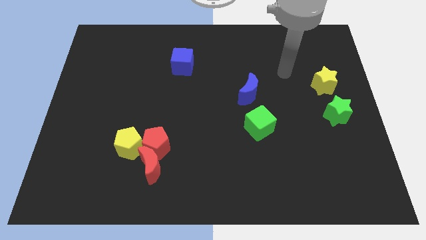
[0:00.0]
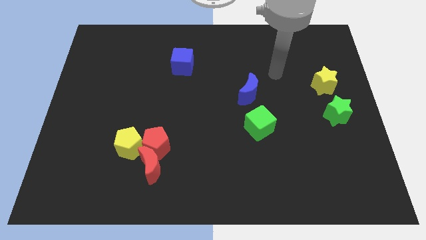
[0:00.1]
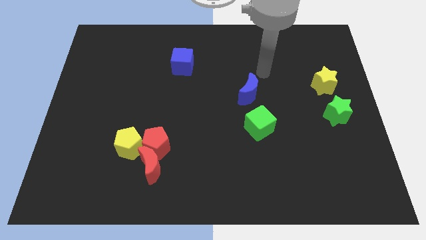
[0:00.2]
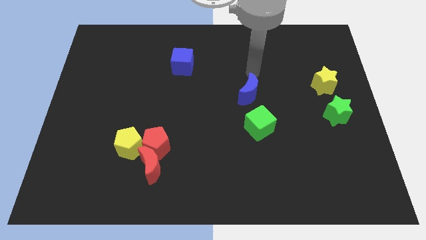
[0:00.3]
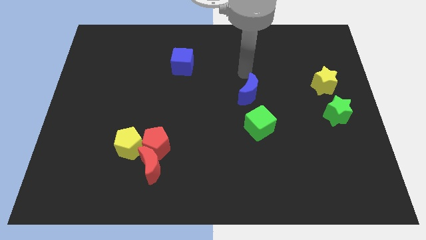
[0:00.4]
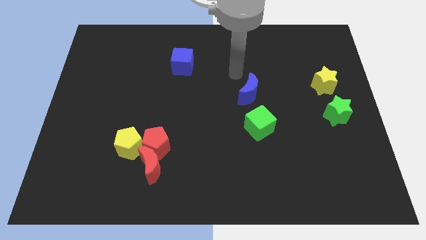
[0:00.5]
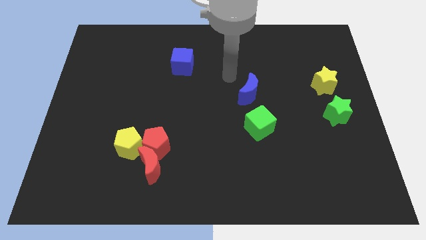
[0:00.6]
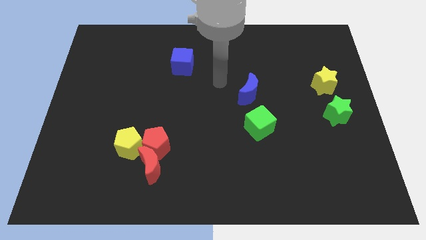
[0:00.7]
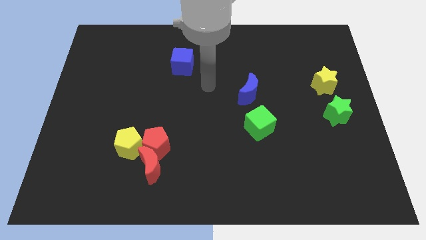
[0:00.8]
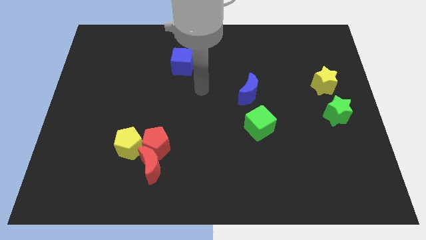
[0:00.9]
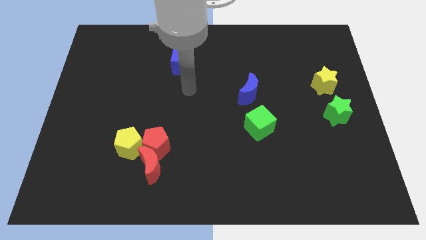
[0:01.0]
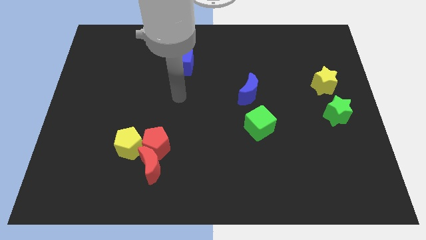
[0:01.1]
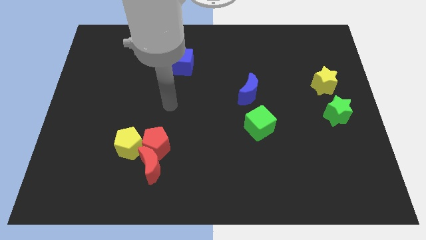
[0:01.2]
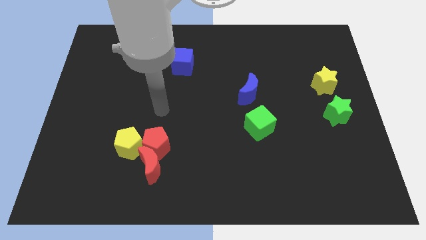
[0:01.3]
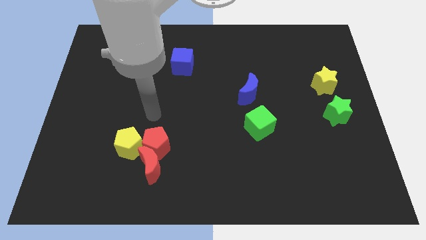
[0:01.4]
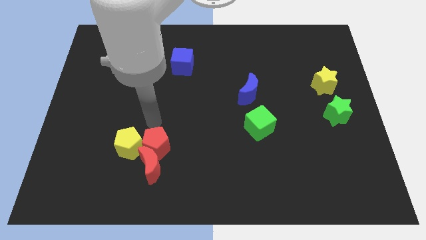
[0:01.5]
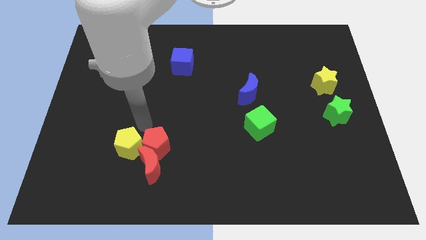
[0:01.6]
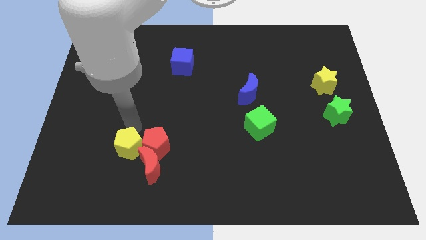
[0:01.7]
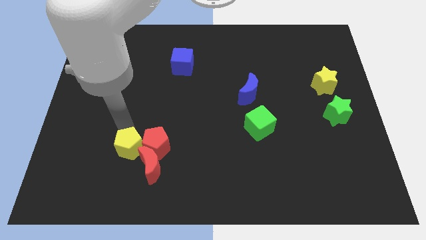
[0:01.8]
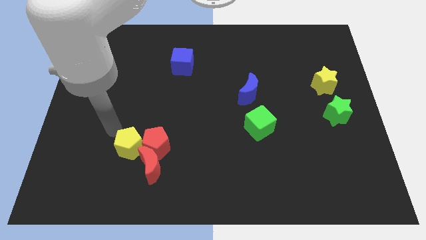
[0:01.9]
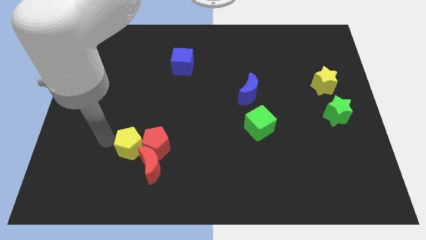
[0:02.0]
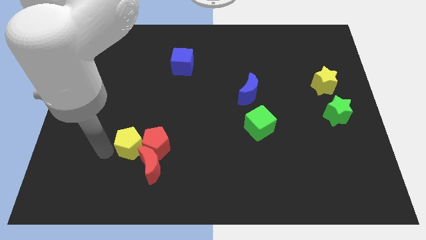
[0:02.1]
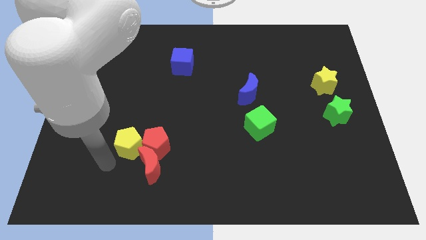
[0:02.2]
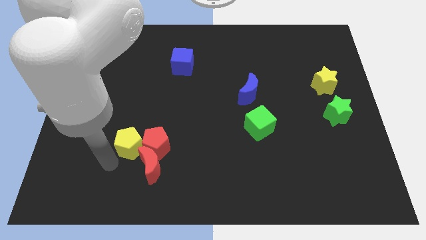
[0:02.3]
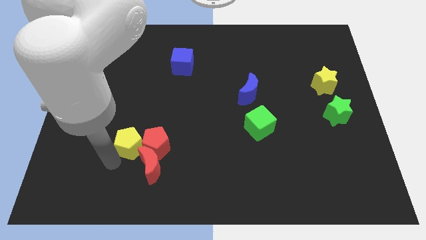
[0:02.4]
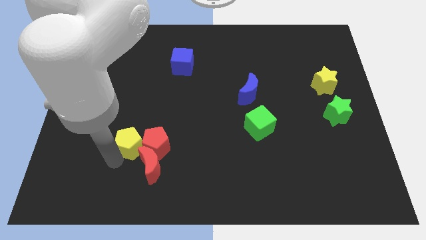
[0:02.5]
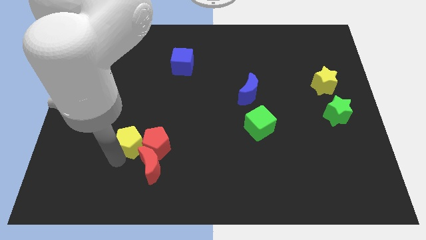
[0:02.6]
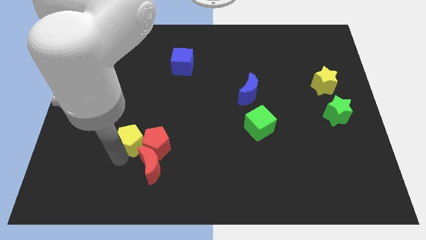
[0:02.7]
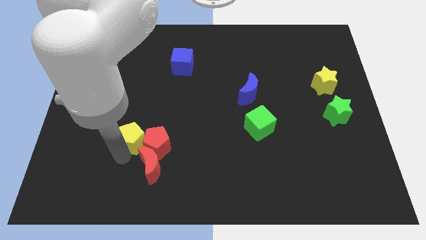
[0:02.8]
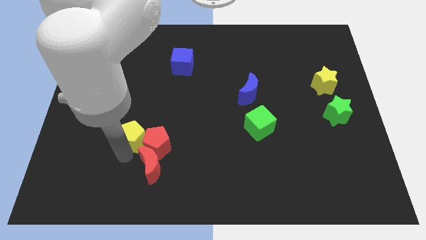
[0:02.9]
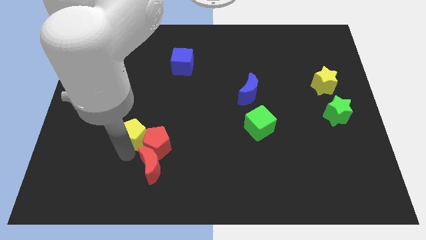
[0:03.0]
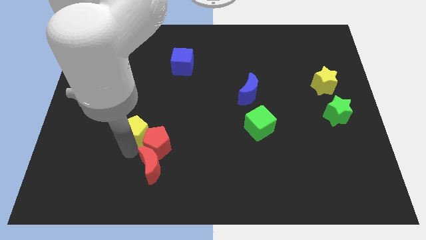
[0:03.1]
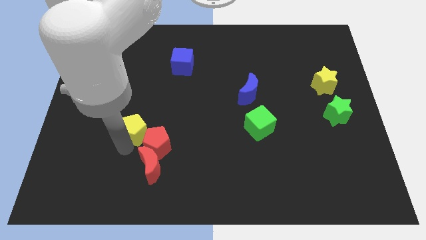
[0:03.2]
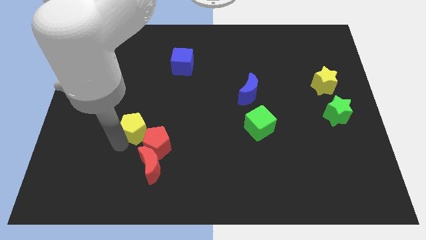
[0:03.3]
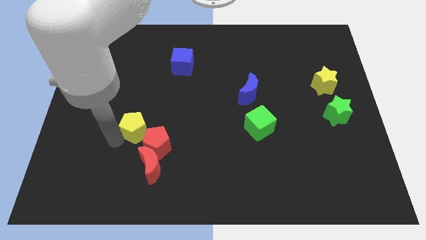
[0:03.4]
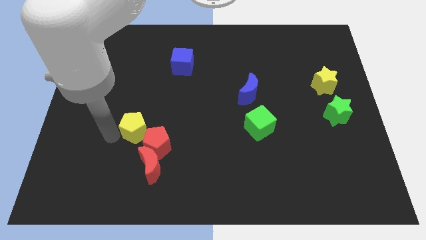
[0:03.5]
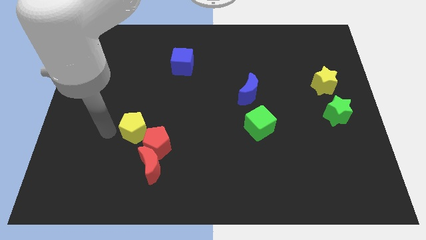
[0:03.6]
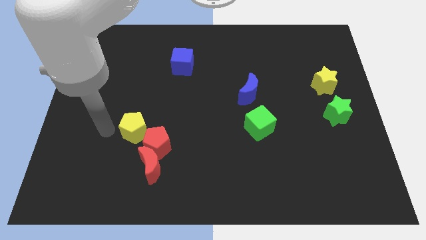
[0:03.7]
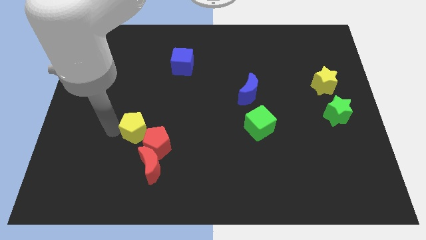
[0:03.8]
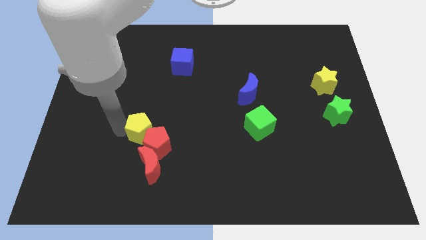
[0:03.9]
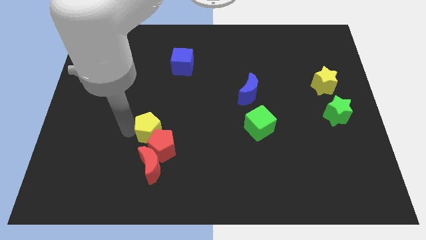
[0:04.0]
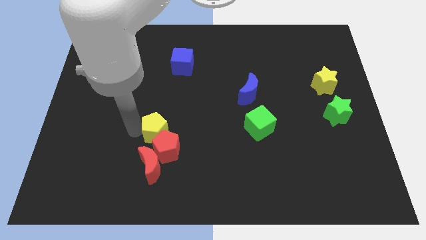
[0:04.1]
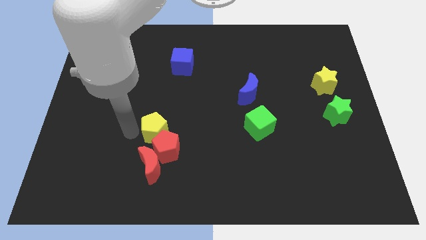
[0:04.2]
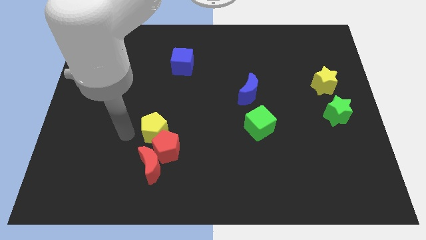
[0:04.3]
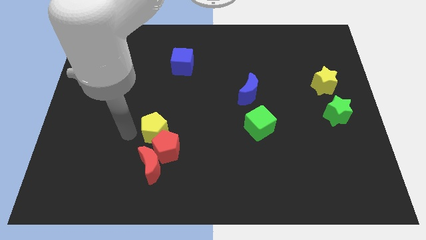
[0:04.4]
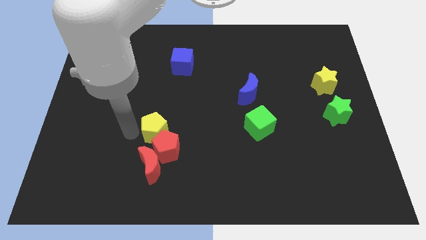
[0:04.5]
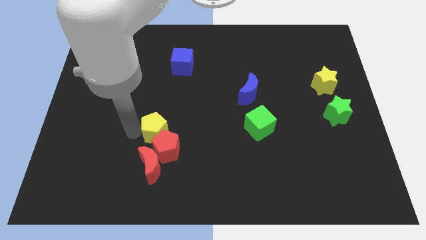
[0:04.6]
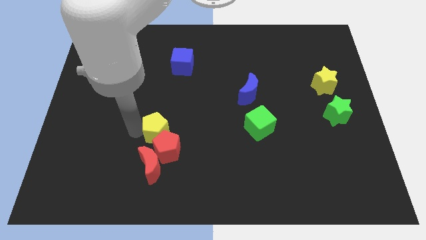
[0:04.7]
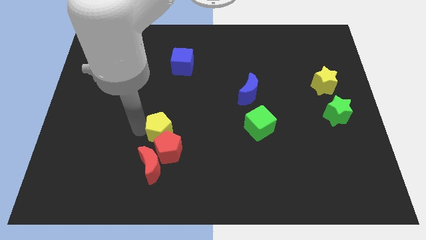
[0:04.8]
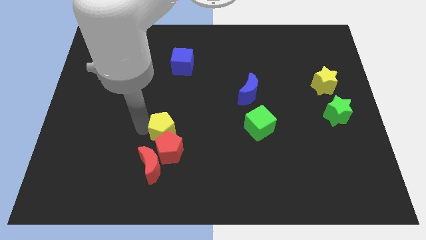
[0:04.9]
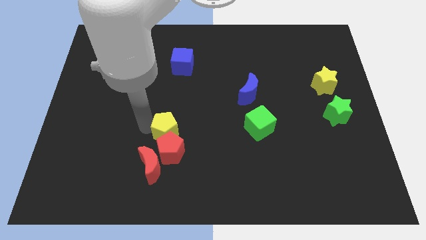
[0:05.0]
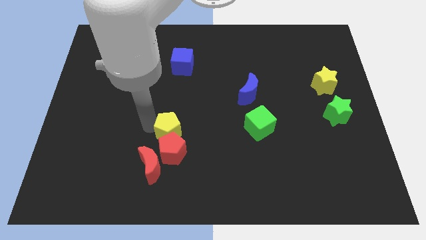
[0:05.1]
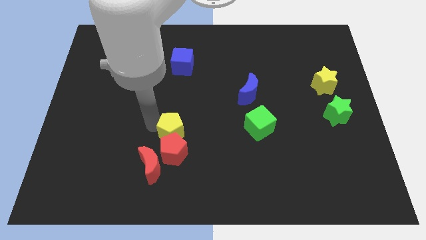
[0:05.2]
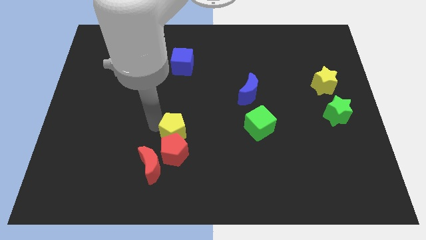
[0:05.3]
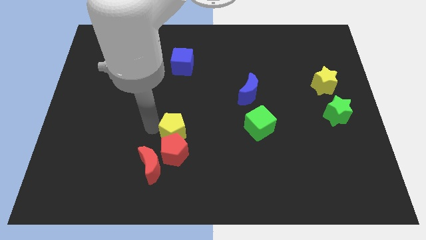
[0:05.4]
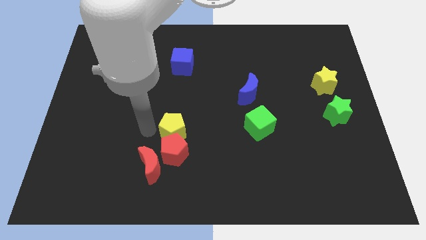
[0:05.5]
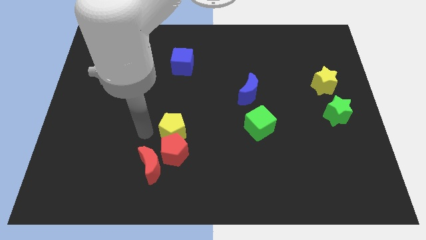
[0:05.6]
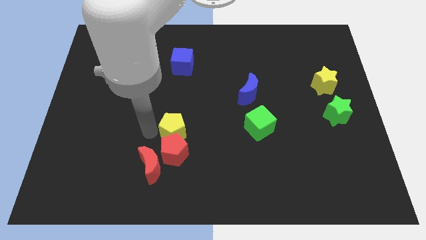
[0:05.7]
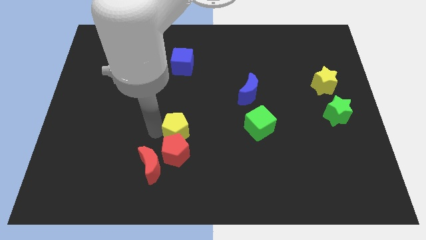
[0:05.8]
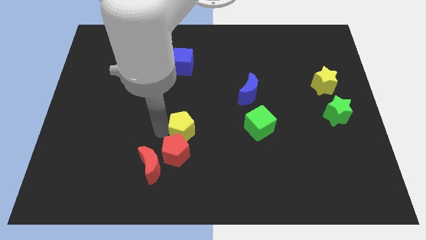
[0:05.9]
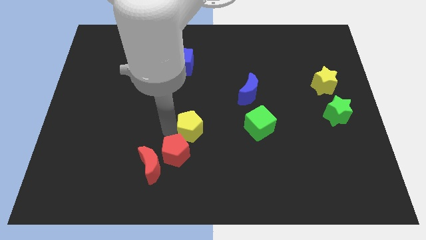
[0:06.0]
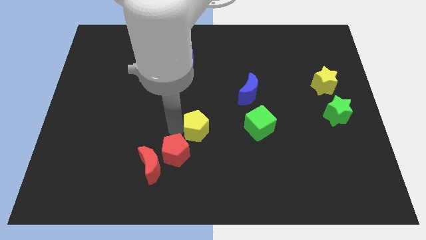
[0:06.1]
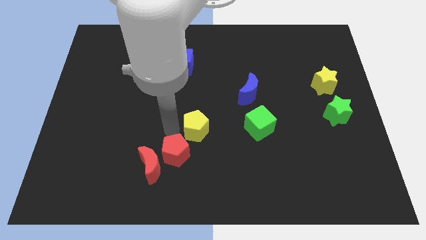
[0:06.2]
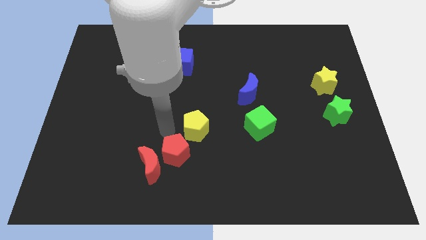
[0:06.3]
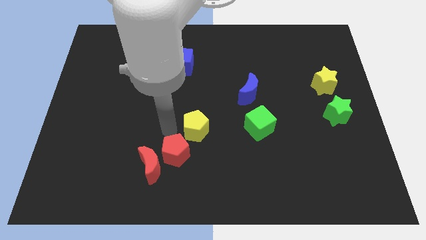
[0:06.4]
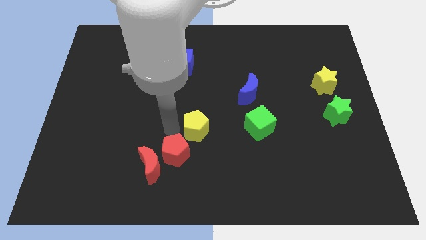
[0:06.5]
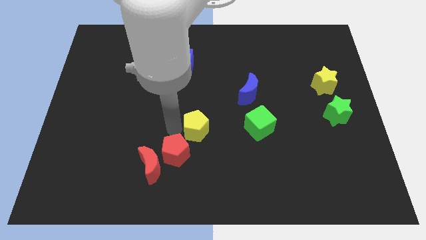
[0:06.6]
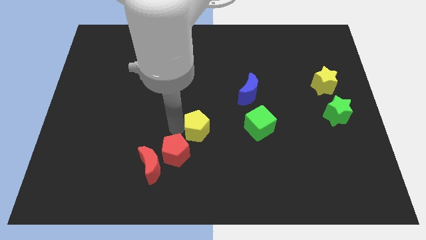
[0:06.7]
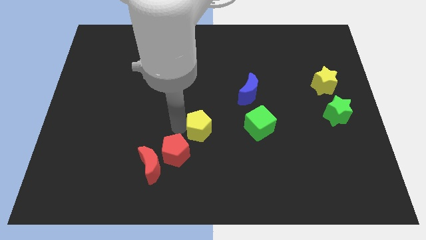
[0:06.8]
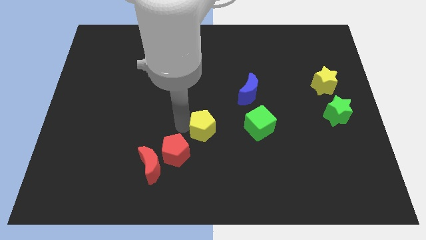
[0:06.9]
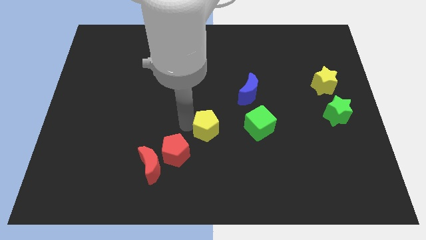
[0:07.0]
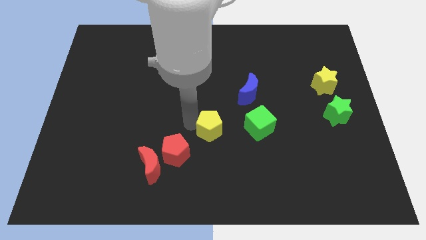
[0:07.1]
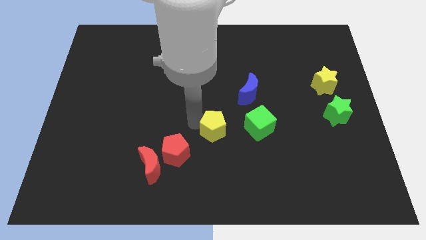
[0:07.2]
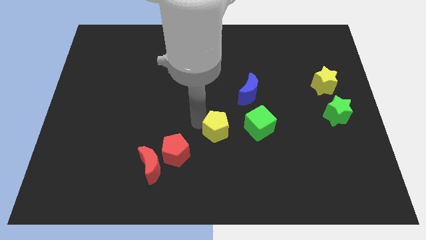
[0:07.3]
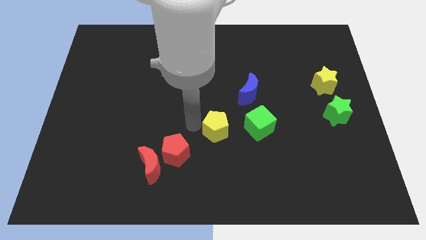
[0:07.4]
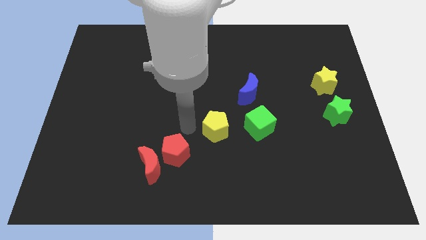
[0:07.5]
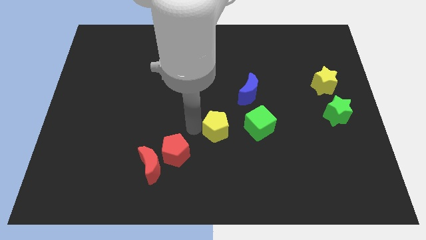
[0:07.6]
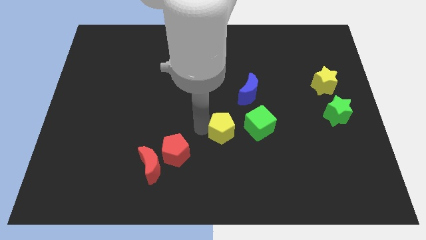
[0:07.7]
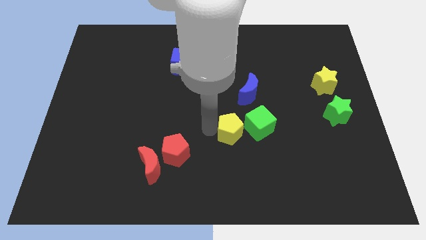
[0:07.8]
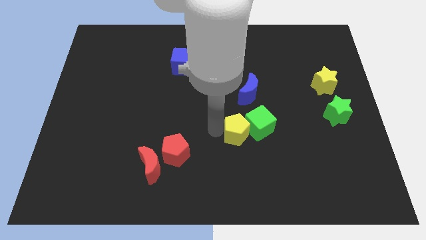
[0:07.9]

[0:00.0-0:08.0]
push the yellow pentagon towards the green cube
